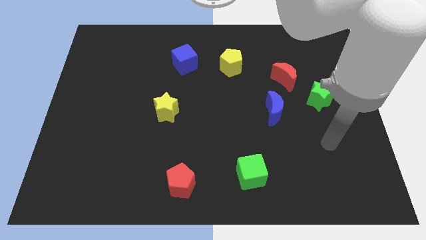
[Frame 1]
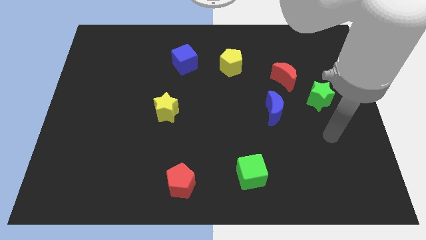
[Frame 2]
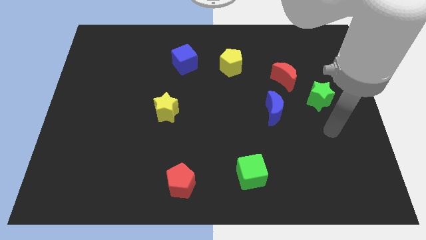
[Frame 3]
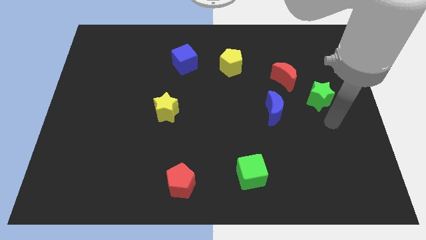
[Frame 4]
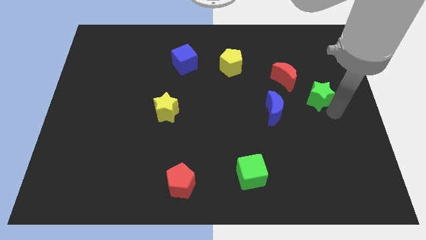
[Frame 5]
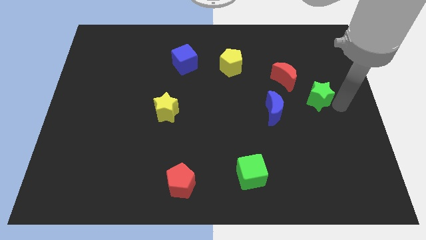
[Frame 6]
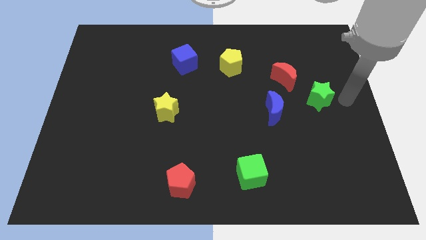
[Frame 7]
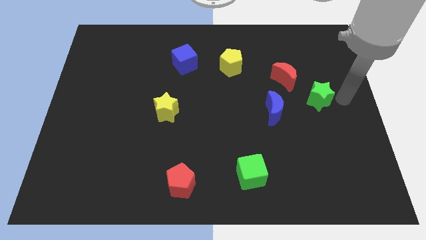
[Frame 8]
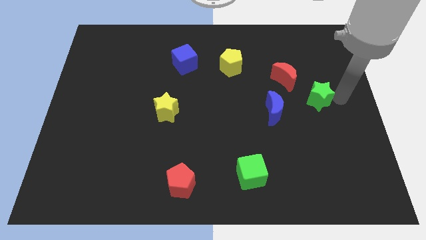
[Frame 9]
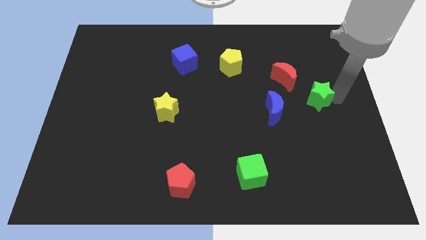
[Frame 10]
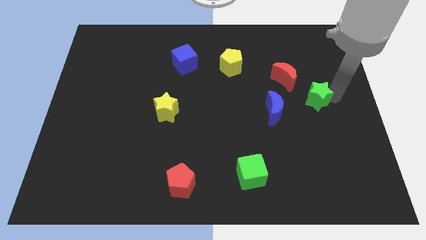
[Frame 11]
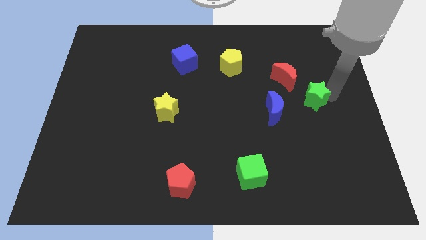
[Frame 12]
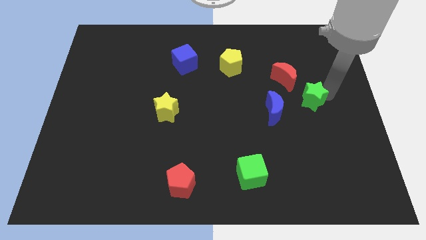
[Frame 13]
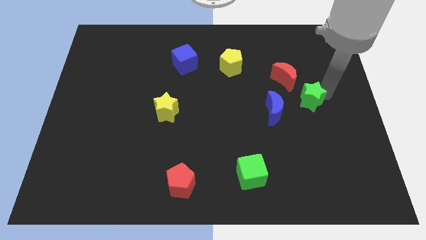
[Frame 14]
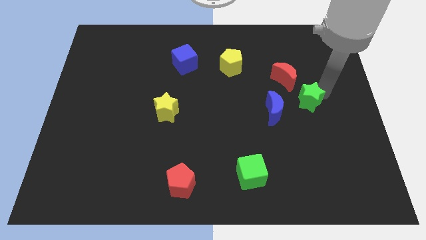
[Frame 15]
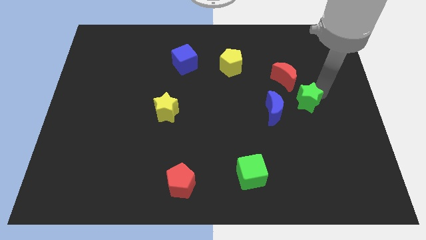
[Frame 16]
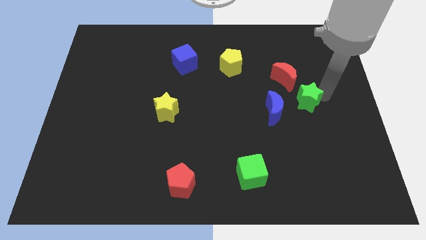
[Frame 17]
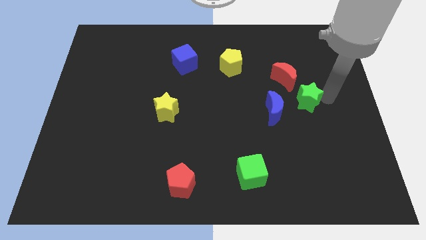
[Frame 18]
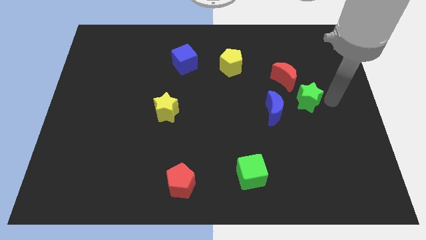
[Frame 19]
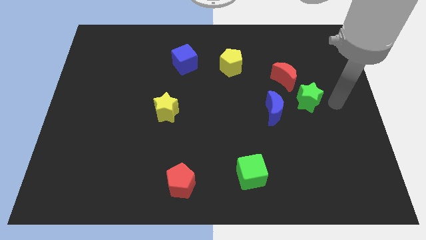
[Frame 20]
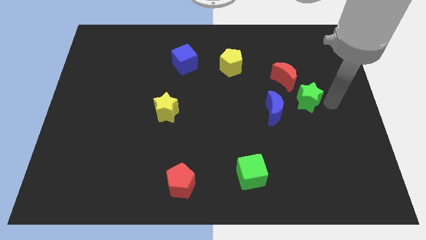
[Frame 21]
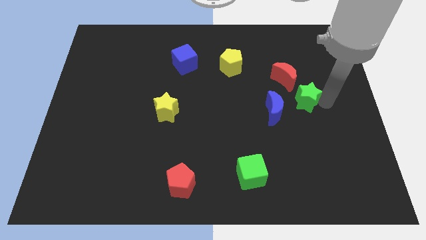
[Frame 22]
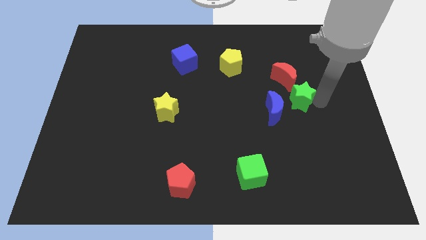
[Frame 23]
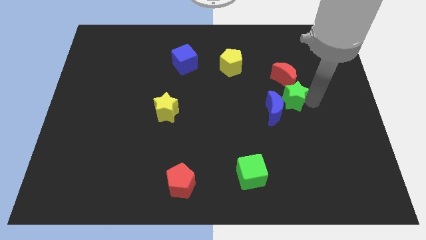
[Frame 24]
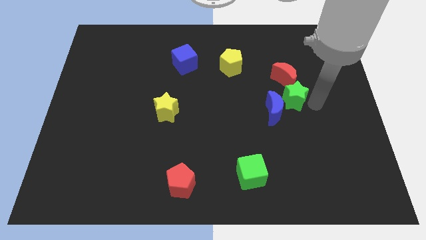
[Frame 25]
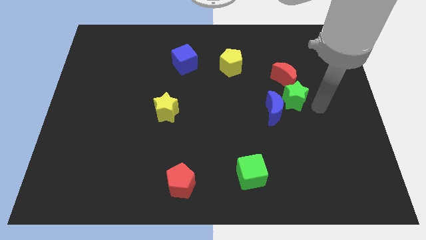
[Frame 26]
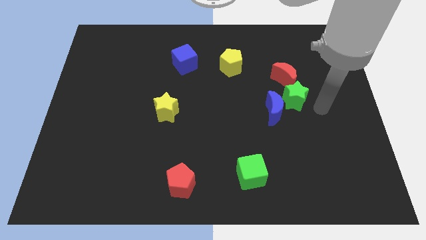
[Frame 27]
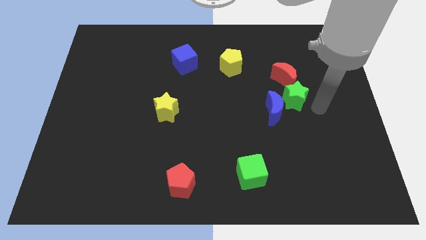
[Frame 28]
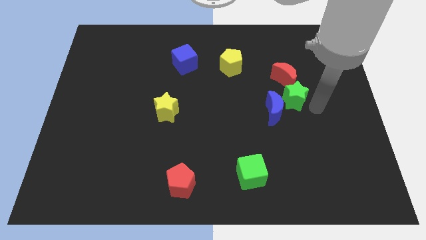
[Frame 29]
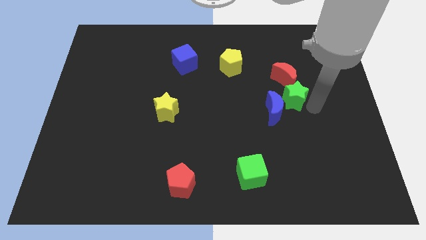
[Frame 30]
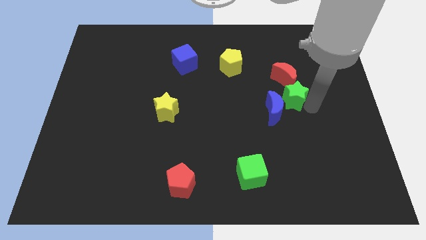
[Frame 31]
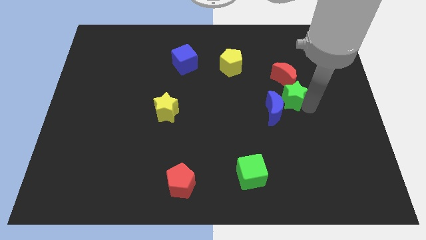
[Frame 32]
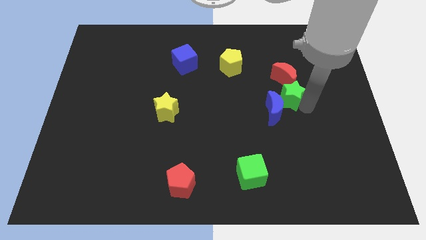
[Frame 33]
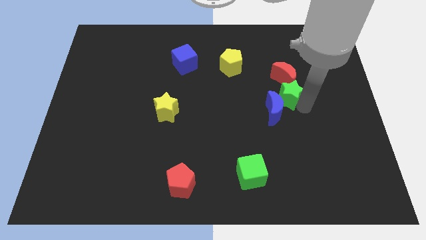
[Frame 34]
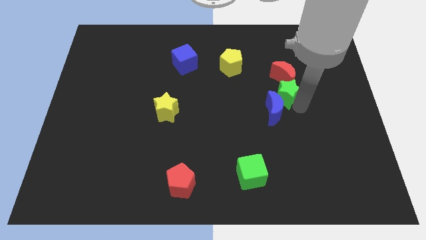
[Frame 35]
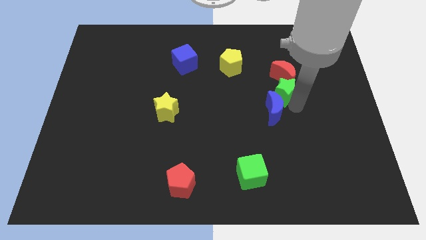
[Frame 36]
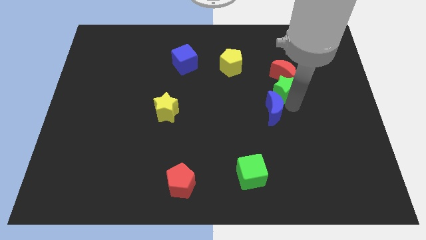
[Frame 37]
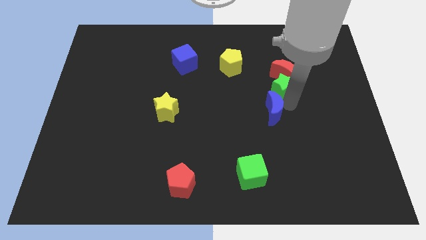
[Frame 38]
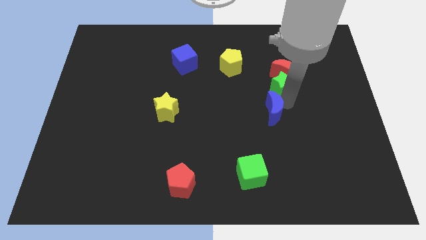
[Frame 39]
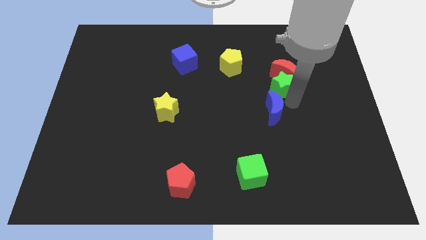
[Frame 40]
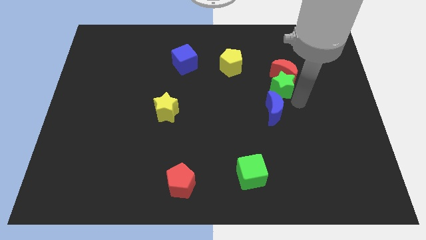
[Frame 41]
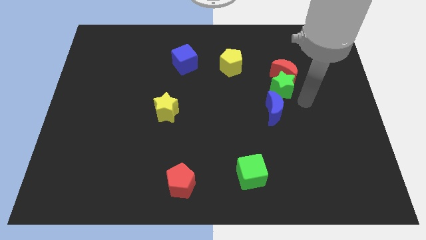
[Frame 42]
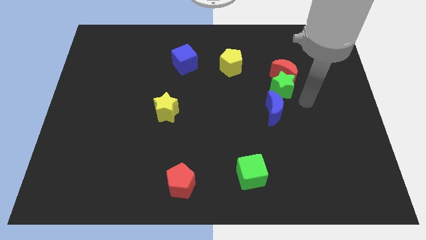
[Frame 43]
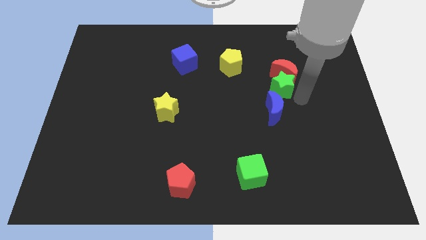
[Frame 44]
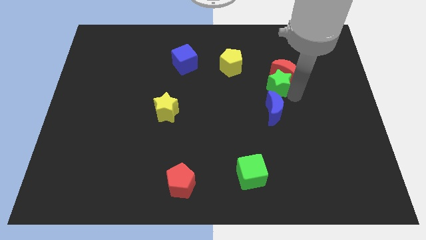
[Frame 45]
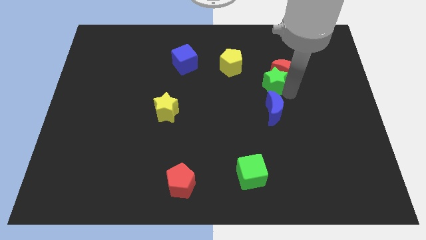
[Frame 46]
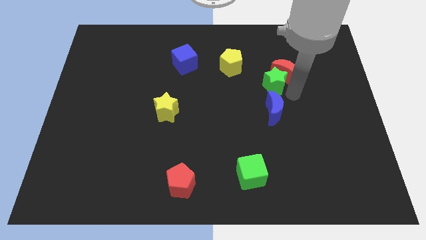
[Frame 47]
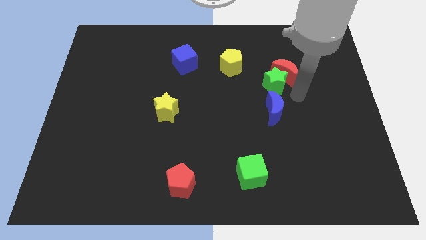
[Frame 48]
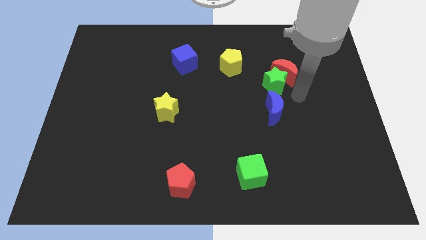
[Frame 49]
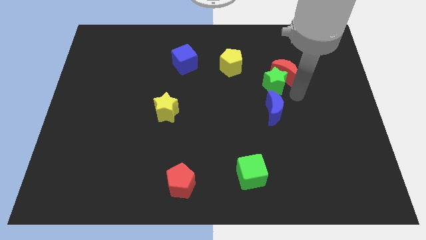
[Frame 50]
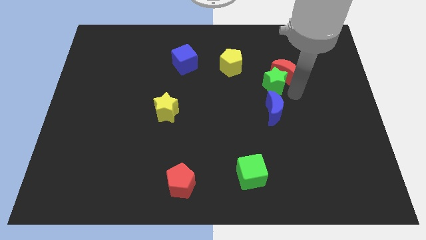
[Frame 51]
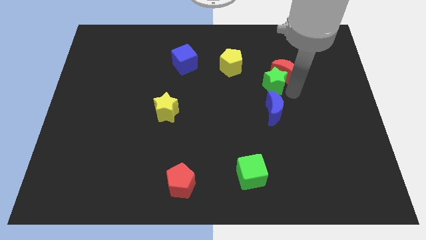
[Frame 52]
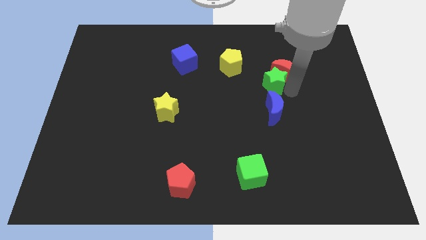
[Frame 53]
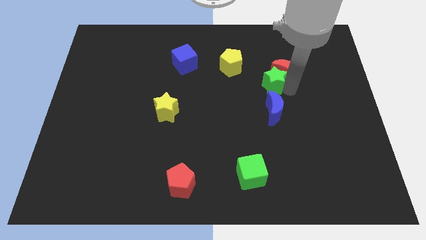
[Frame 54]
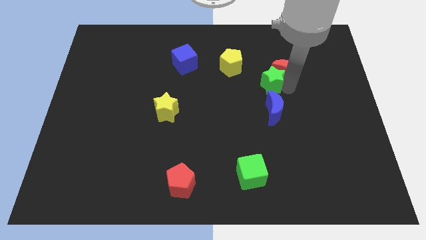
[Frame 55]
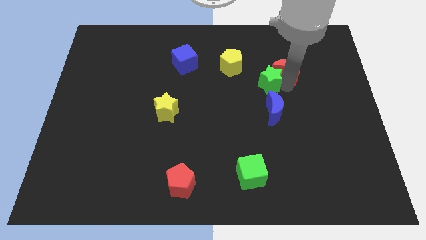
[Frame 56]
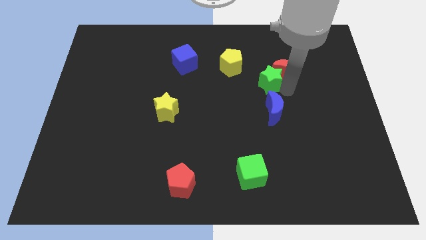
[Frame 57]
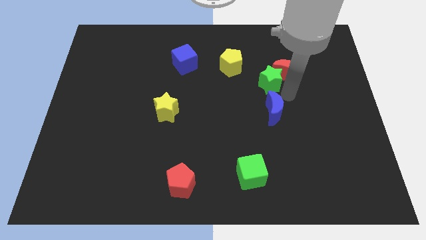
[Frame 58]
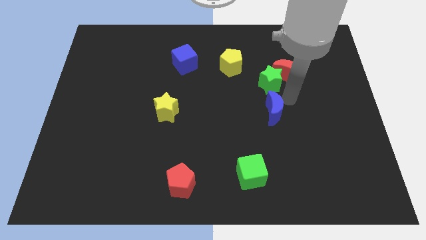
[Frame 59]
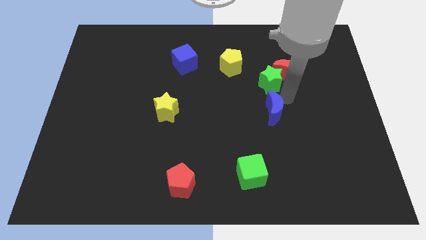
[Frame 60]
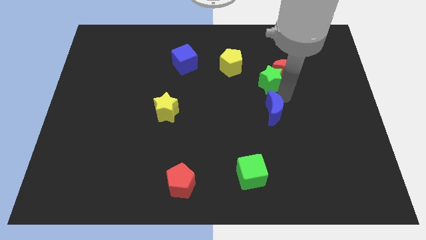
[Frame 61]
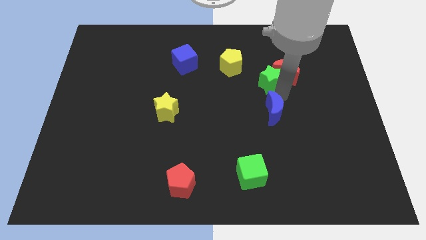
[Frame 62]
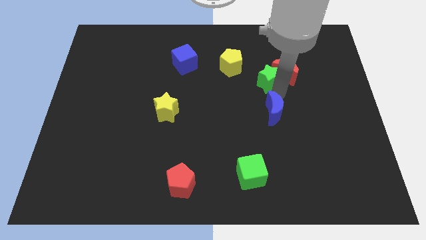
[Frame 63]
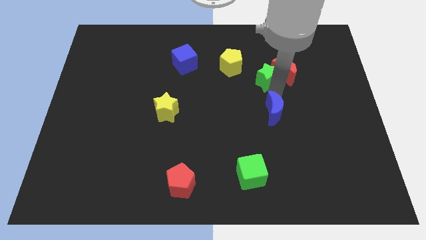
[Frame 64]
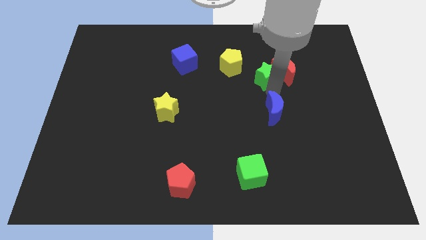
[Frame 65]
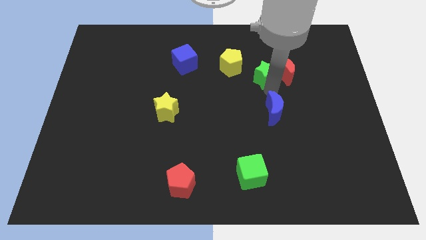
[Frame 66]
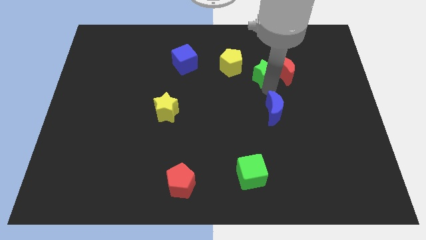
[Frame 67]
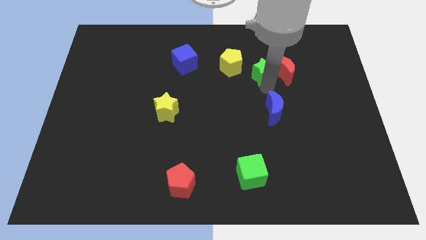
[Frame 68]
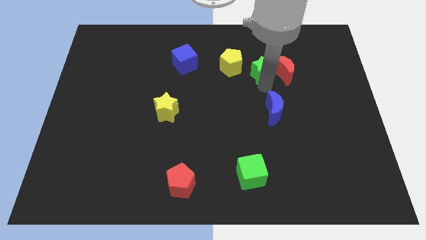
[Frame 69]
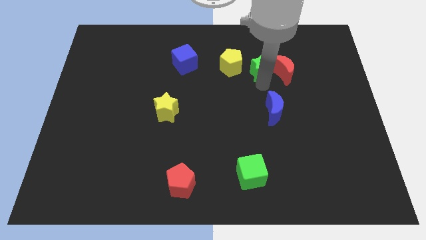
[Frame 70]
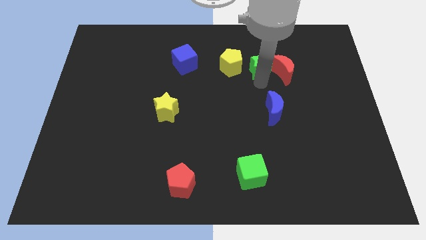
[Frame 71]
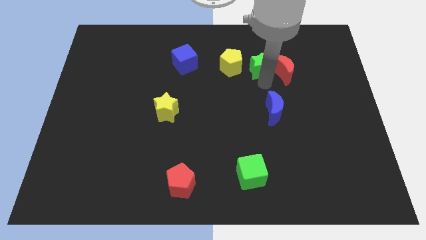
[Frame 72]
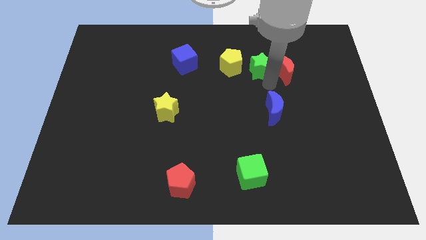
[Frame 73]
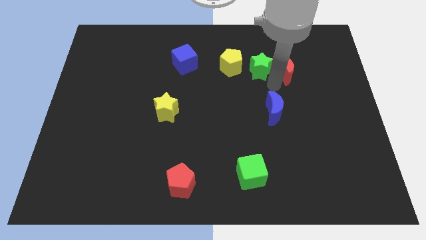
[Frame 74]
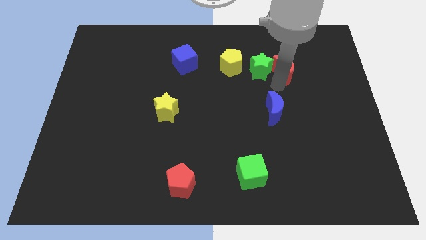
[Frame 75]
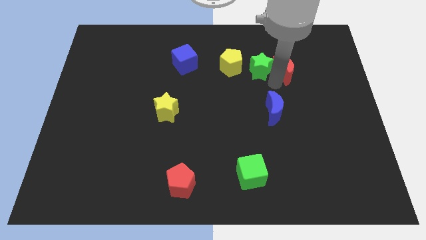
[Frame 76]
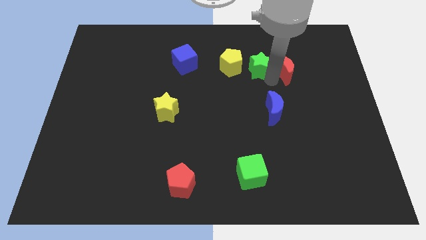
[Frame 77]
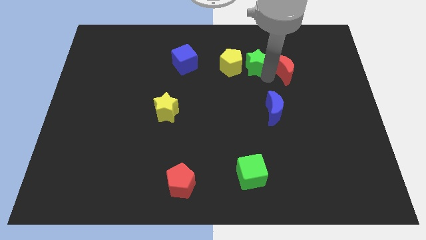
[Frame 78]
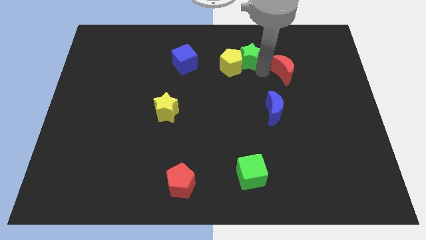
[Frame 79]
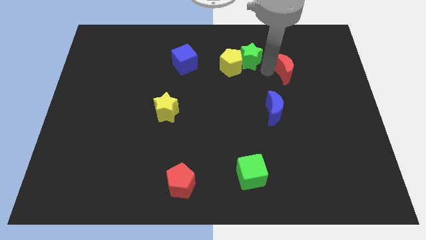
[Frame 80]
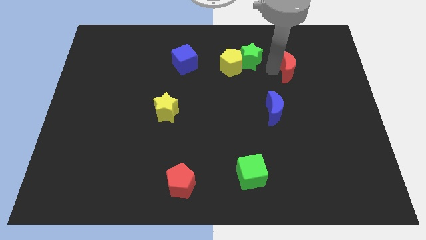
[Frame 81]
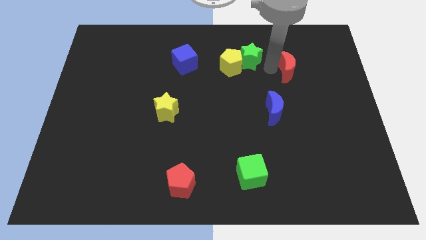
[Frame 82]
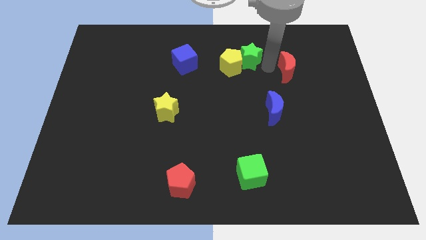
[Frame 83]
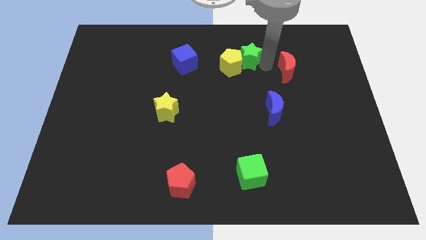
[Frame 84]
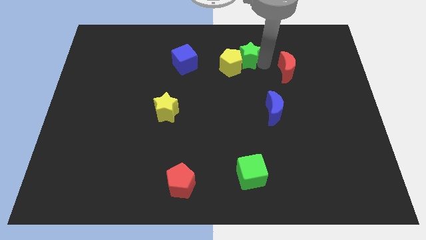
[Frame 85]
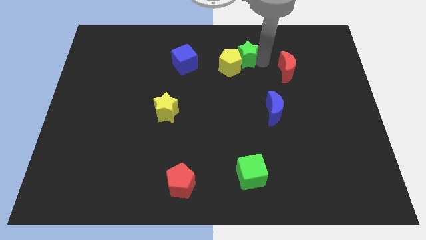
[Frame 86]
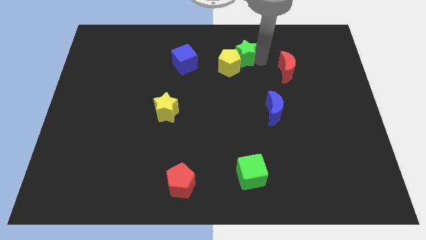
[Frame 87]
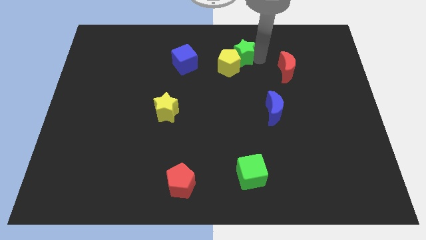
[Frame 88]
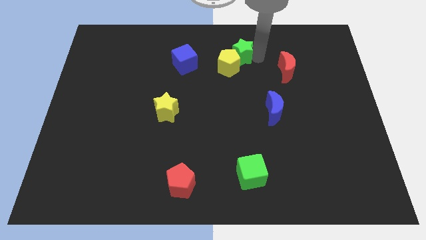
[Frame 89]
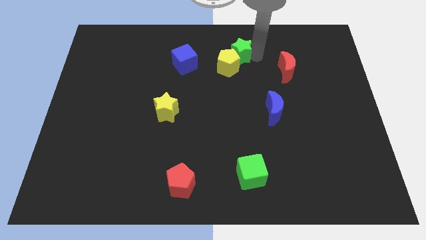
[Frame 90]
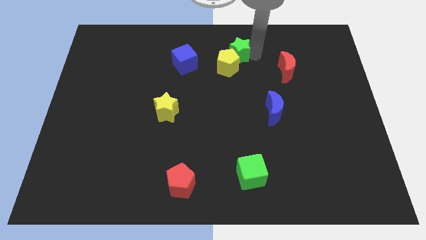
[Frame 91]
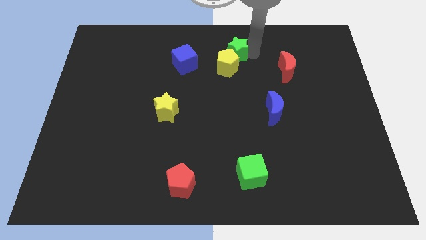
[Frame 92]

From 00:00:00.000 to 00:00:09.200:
move the green star to the towards your base
